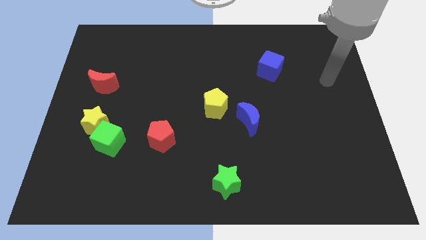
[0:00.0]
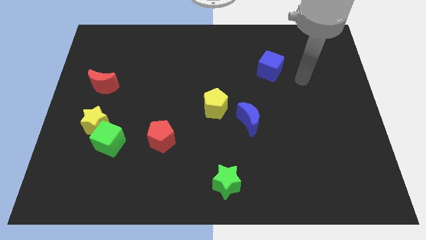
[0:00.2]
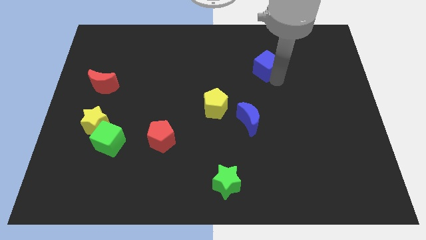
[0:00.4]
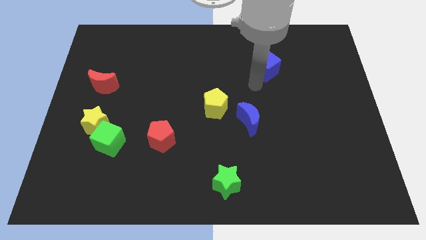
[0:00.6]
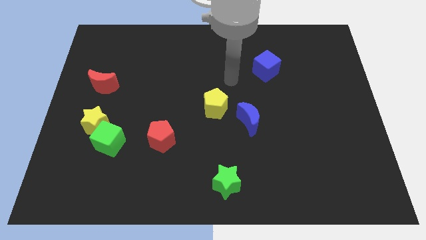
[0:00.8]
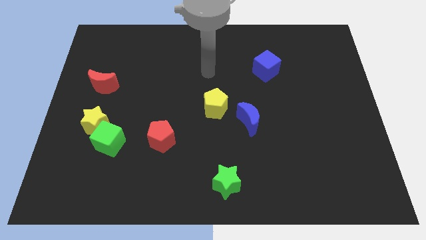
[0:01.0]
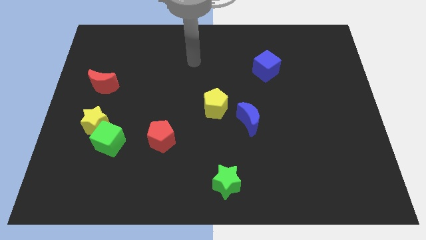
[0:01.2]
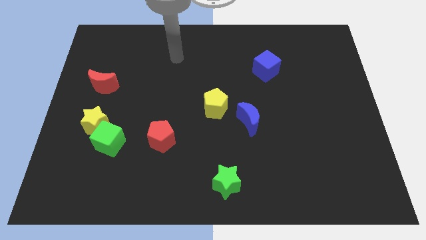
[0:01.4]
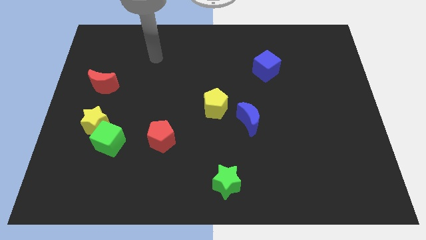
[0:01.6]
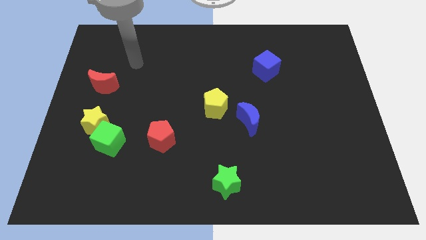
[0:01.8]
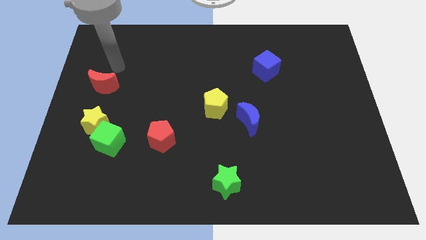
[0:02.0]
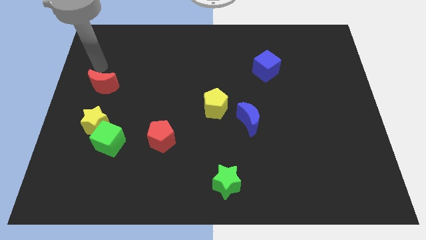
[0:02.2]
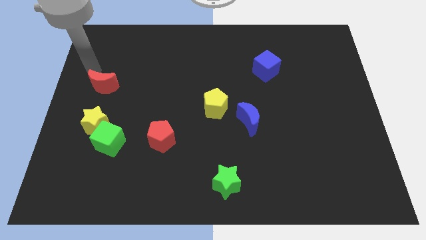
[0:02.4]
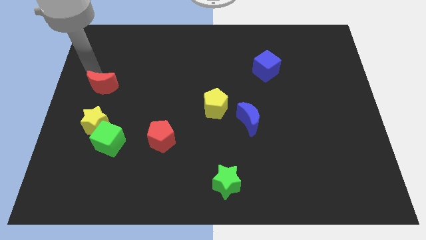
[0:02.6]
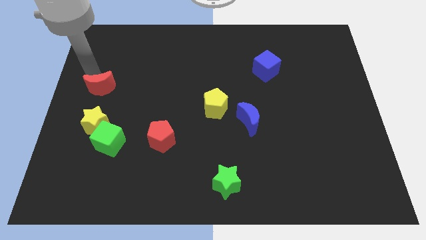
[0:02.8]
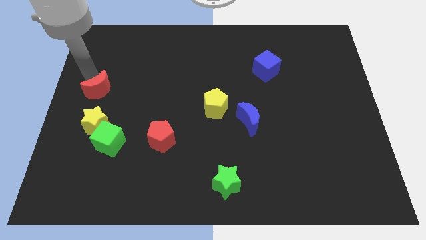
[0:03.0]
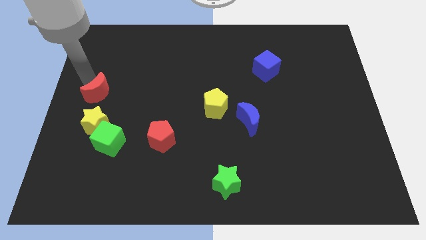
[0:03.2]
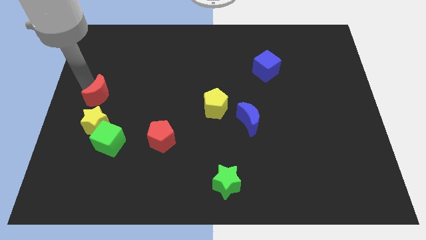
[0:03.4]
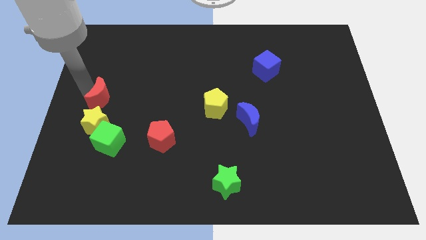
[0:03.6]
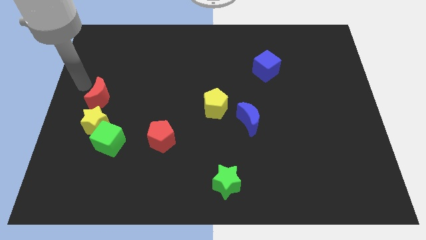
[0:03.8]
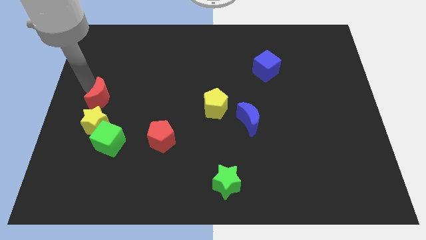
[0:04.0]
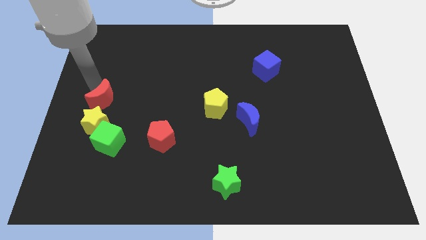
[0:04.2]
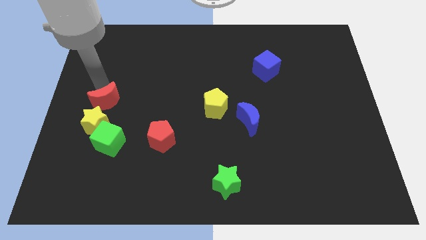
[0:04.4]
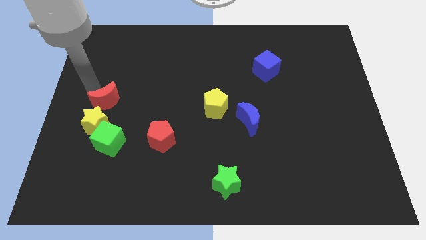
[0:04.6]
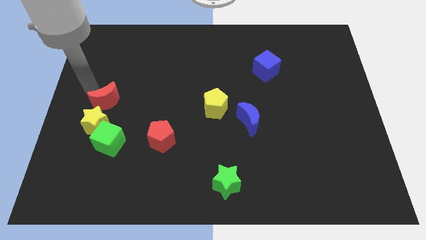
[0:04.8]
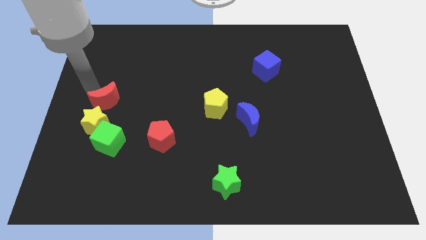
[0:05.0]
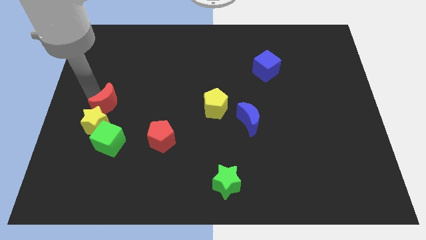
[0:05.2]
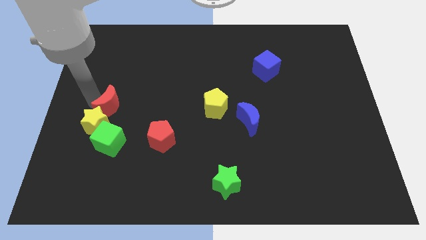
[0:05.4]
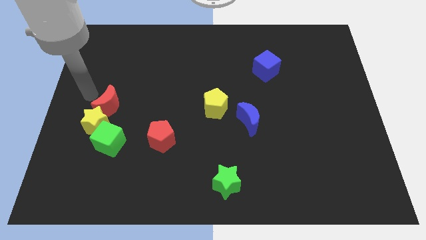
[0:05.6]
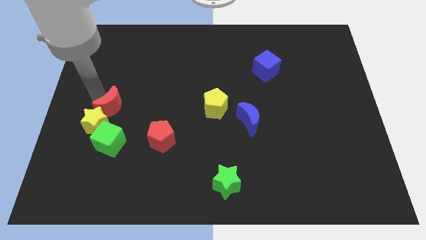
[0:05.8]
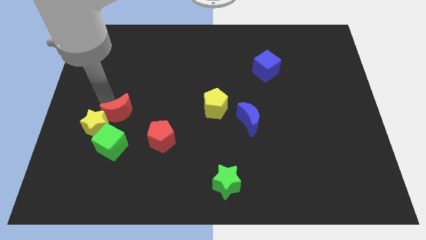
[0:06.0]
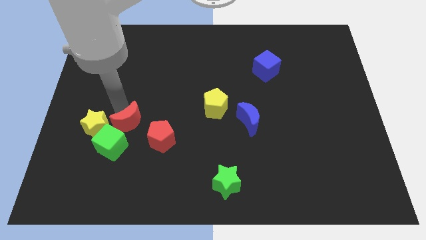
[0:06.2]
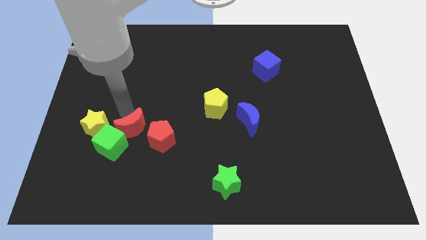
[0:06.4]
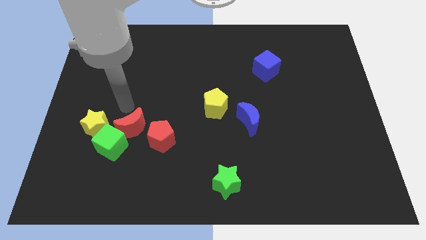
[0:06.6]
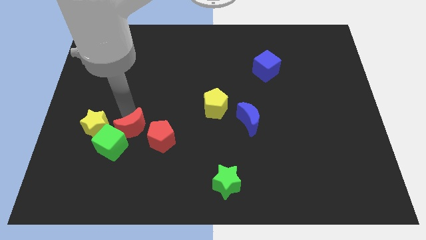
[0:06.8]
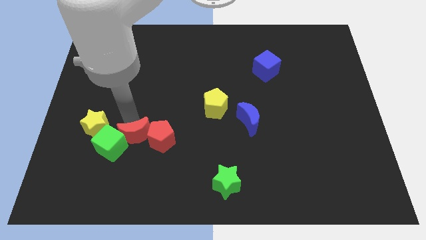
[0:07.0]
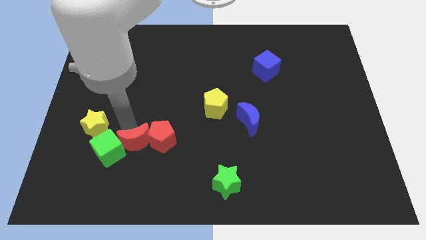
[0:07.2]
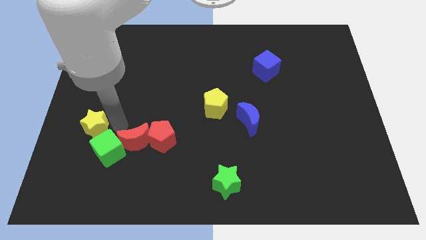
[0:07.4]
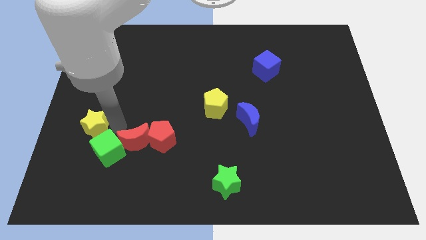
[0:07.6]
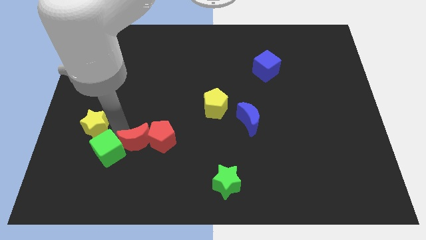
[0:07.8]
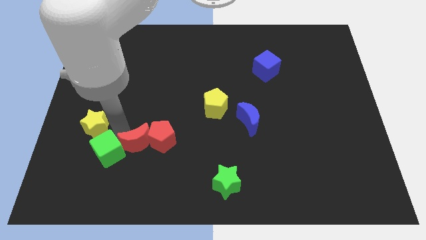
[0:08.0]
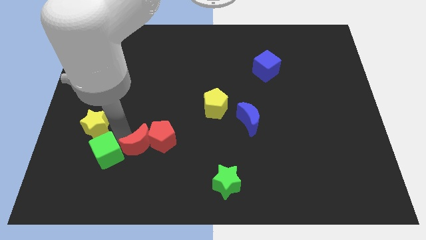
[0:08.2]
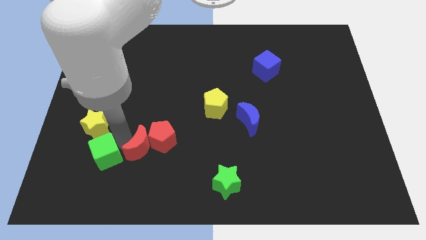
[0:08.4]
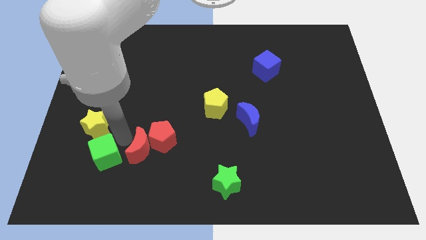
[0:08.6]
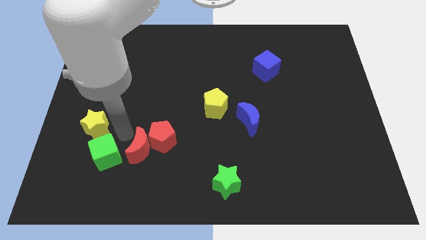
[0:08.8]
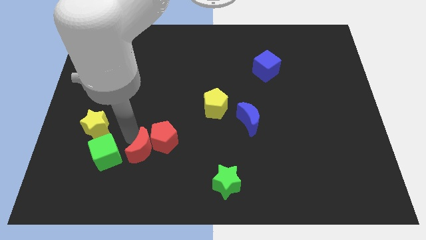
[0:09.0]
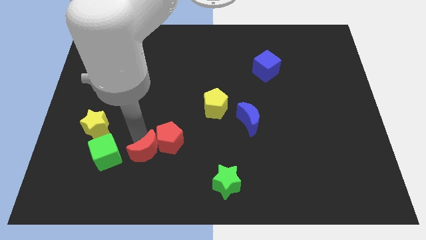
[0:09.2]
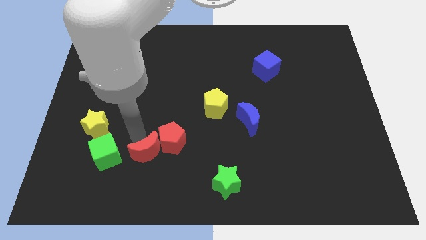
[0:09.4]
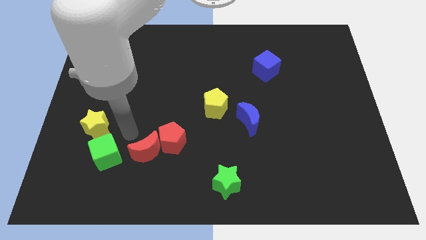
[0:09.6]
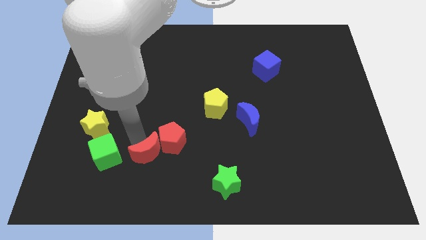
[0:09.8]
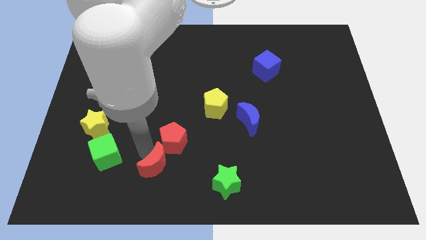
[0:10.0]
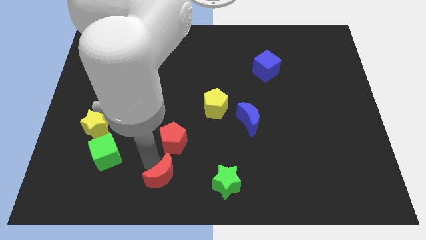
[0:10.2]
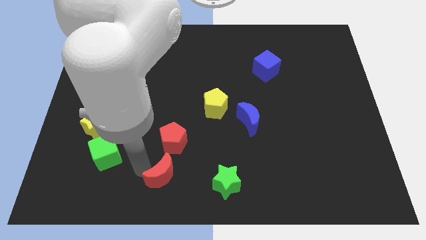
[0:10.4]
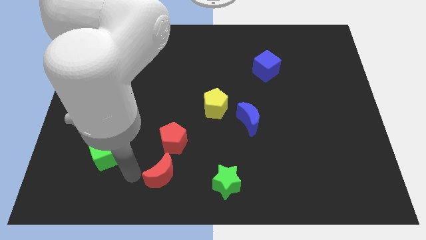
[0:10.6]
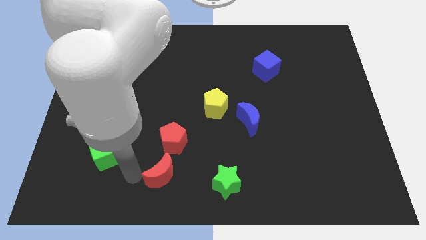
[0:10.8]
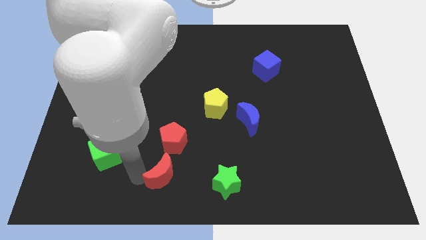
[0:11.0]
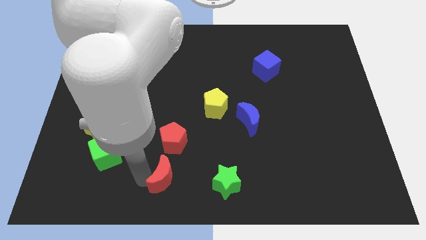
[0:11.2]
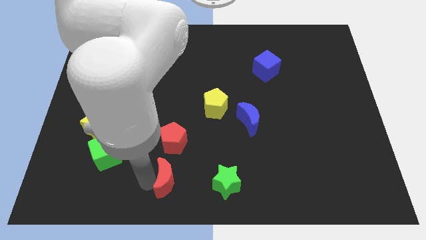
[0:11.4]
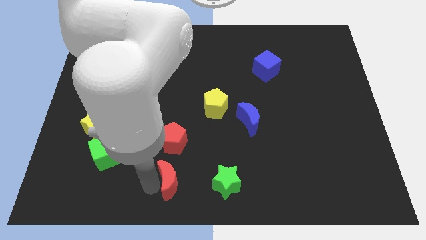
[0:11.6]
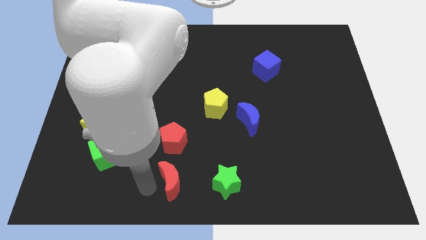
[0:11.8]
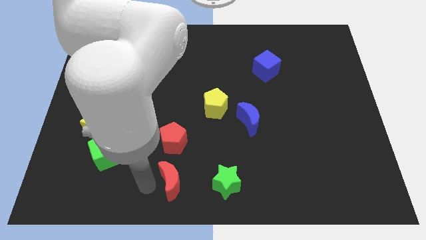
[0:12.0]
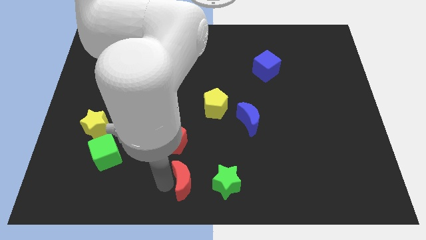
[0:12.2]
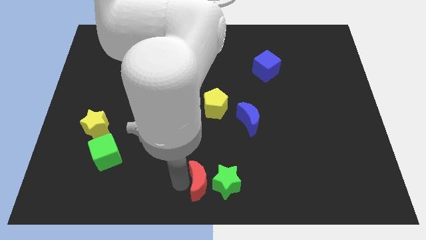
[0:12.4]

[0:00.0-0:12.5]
push the red moon next to the green star

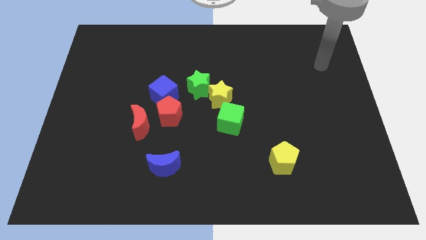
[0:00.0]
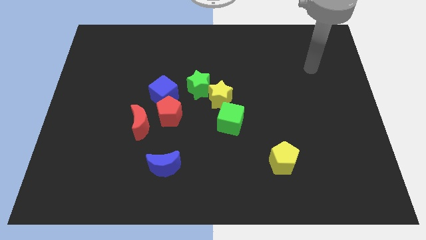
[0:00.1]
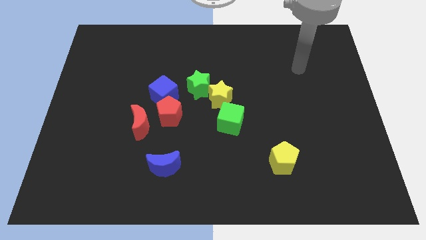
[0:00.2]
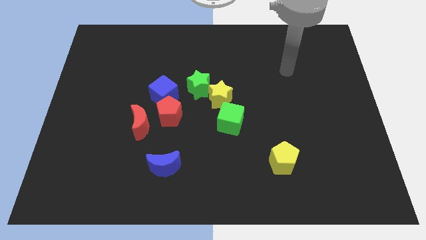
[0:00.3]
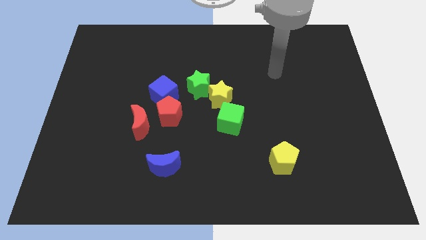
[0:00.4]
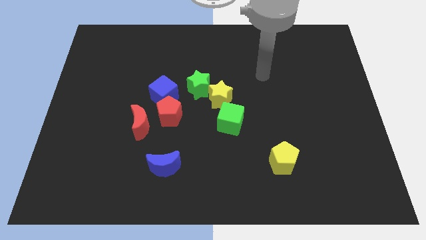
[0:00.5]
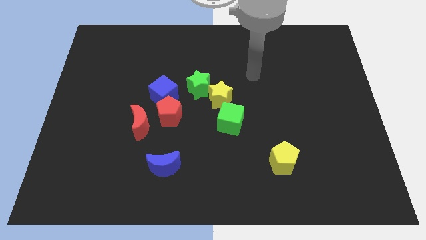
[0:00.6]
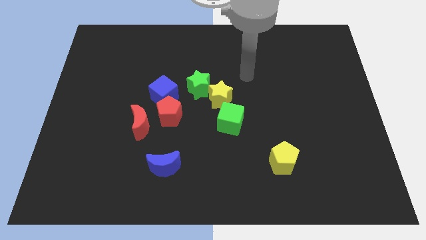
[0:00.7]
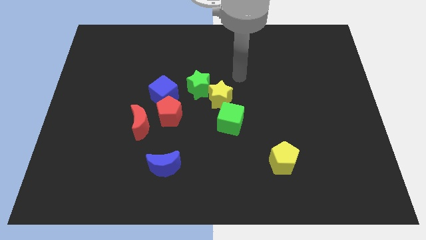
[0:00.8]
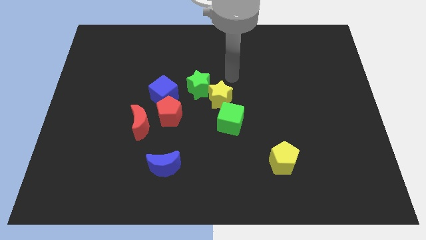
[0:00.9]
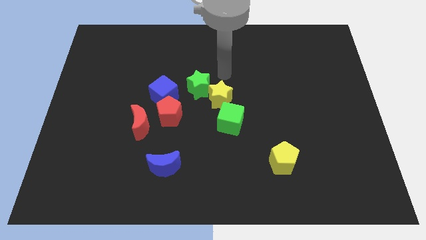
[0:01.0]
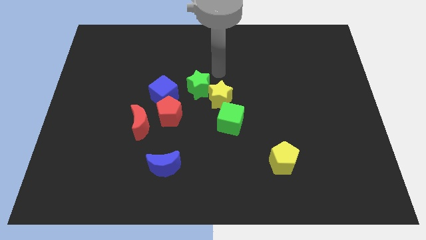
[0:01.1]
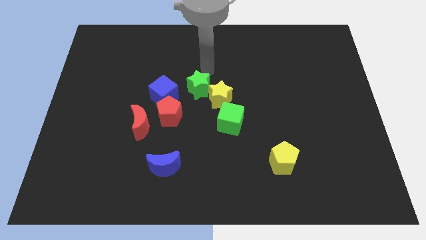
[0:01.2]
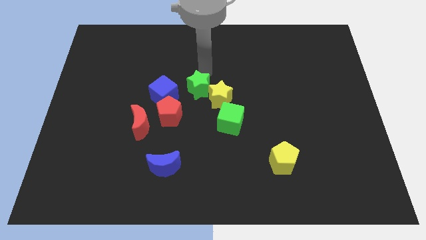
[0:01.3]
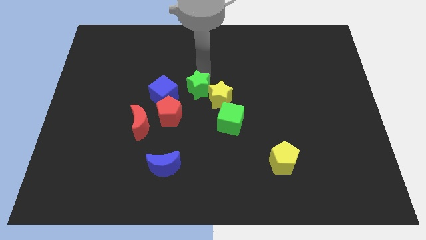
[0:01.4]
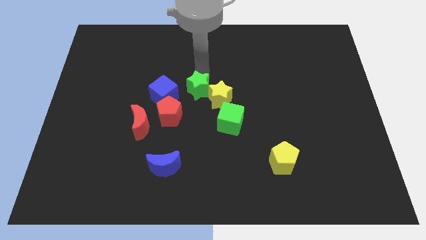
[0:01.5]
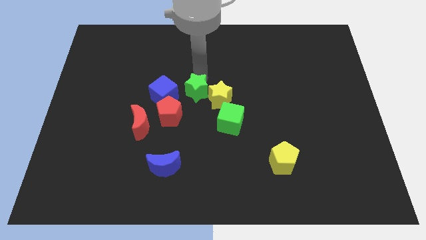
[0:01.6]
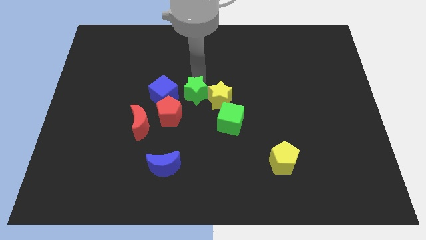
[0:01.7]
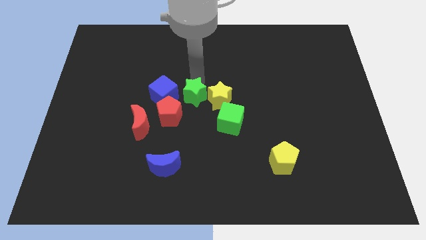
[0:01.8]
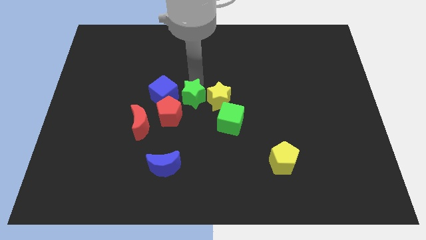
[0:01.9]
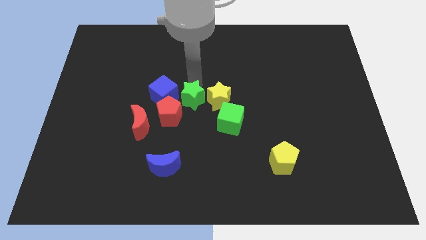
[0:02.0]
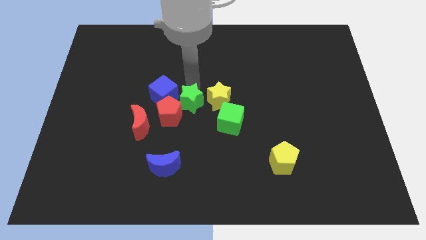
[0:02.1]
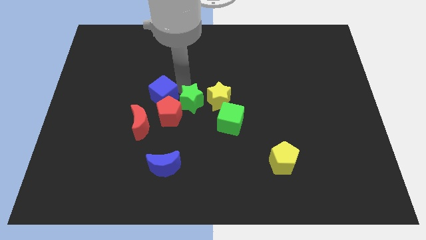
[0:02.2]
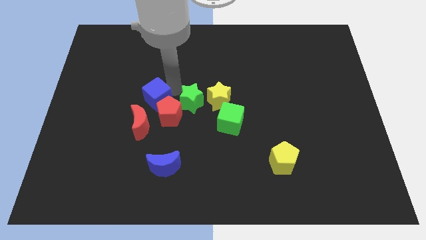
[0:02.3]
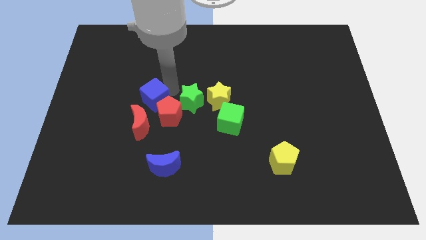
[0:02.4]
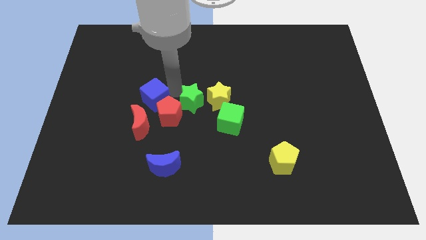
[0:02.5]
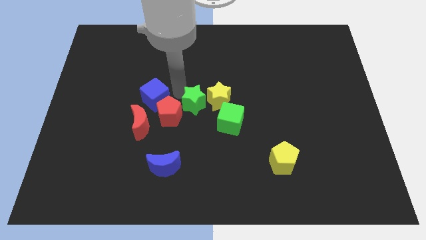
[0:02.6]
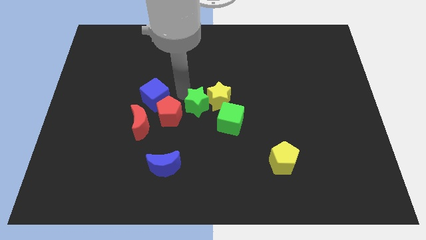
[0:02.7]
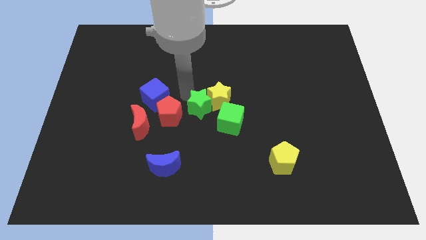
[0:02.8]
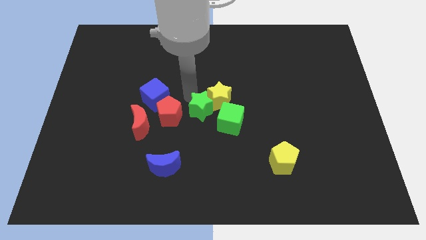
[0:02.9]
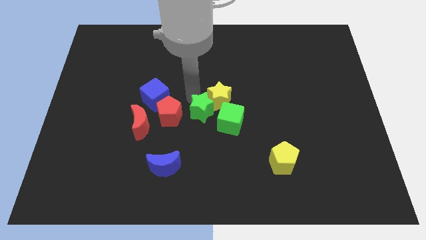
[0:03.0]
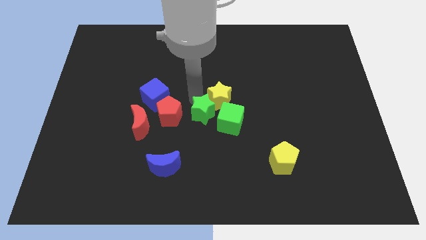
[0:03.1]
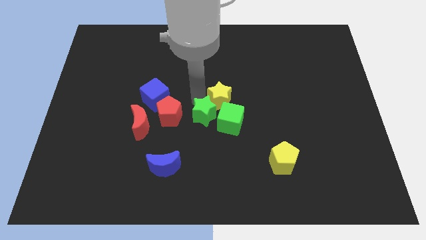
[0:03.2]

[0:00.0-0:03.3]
push the green star towards the green cube
